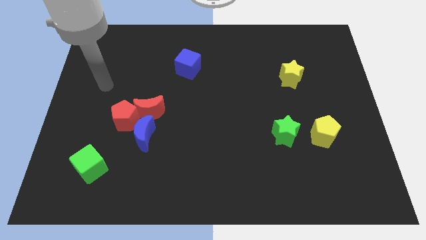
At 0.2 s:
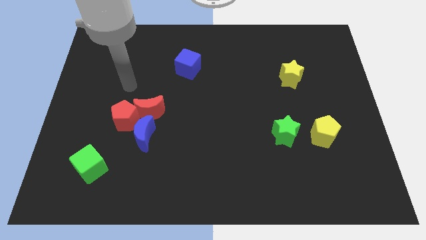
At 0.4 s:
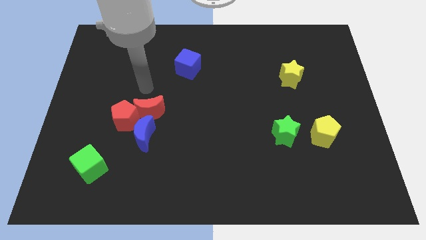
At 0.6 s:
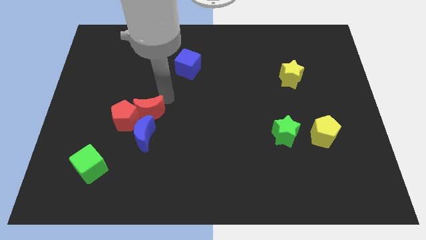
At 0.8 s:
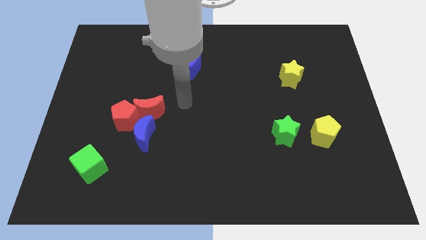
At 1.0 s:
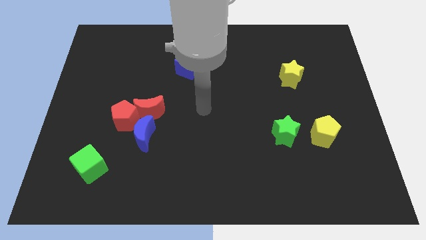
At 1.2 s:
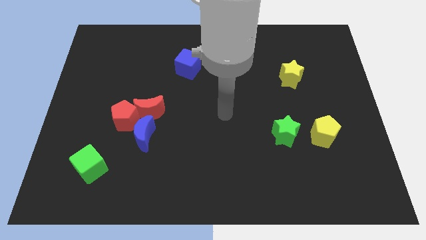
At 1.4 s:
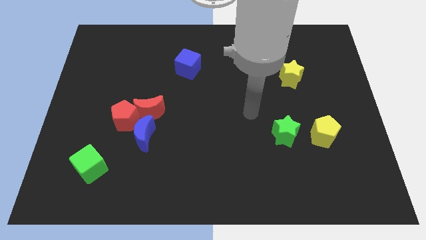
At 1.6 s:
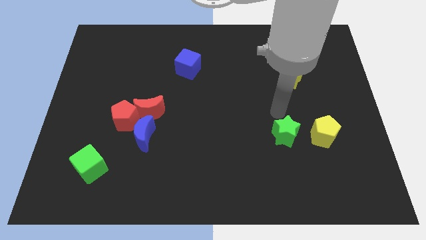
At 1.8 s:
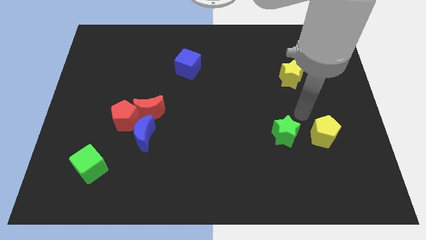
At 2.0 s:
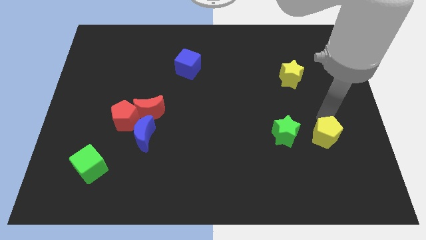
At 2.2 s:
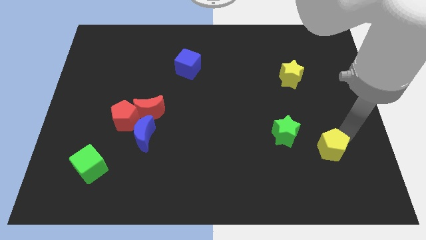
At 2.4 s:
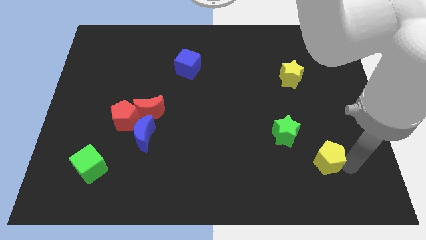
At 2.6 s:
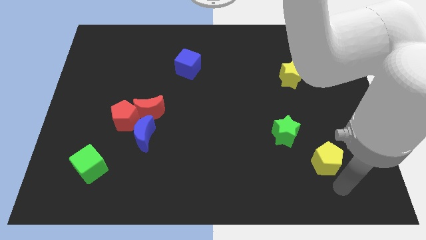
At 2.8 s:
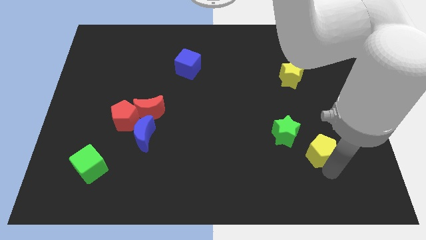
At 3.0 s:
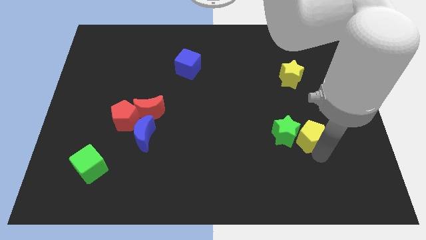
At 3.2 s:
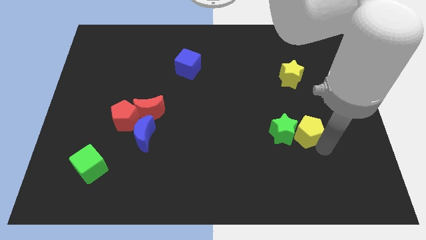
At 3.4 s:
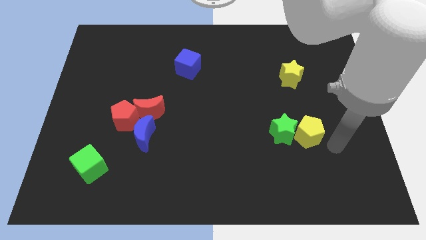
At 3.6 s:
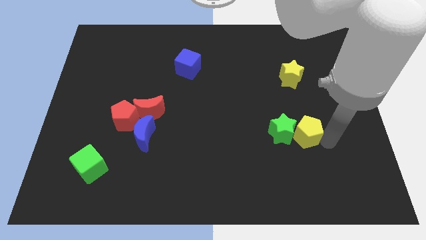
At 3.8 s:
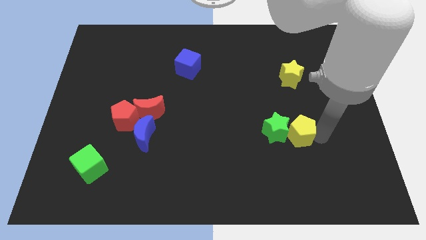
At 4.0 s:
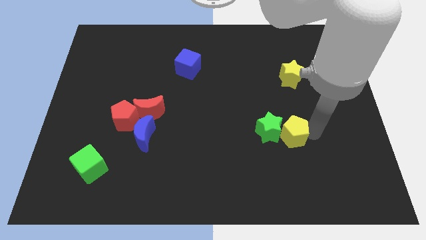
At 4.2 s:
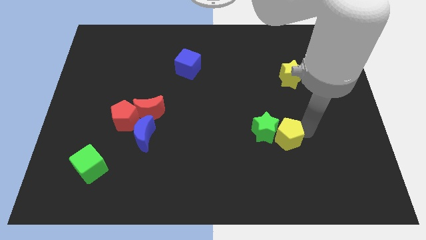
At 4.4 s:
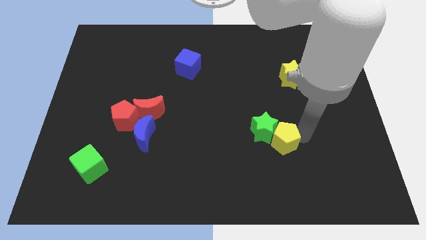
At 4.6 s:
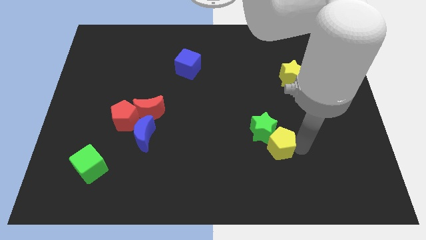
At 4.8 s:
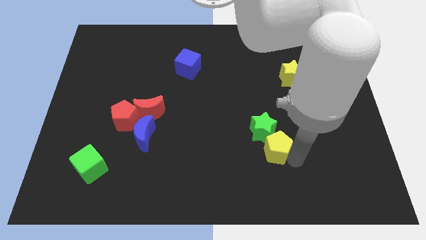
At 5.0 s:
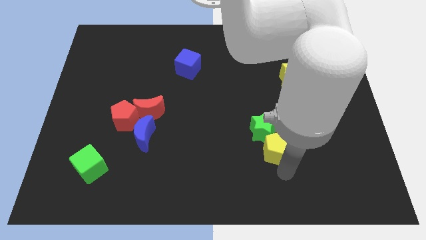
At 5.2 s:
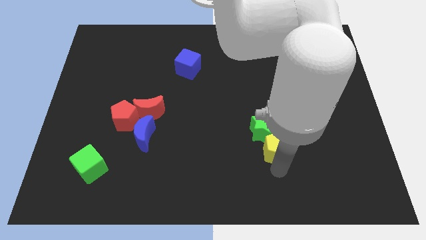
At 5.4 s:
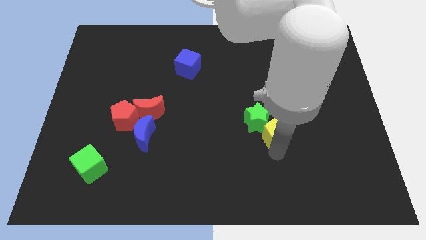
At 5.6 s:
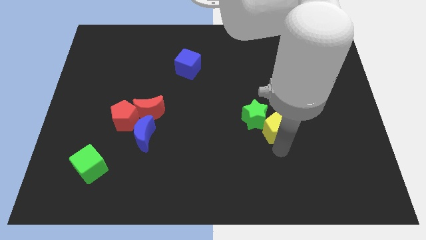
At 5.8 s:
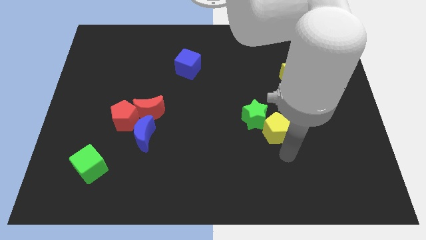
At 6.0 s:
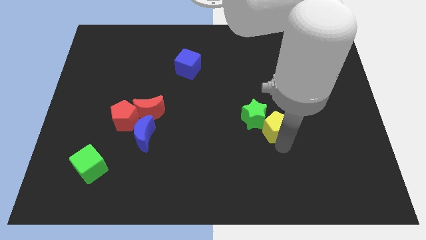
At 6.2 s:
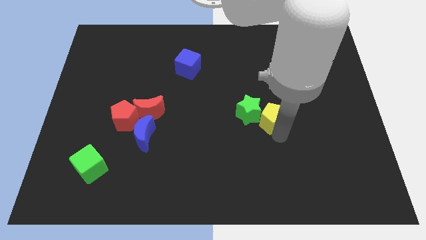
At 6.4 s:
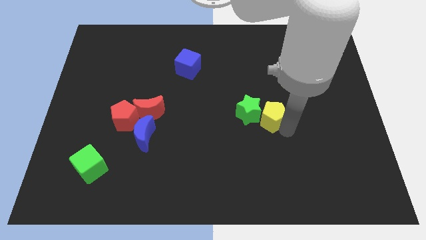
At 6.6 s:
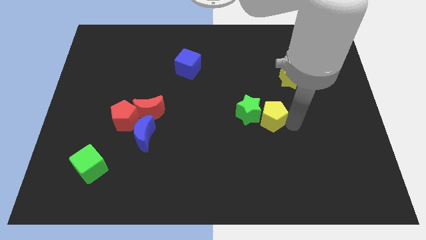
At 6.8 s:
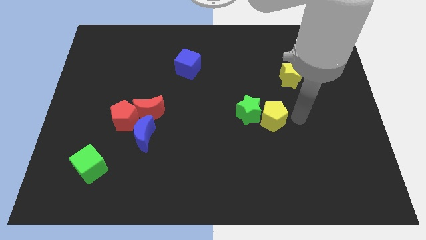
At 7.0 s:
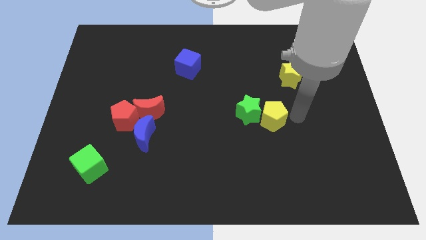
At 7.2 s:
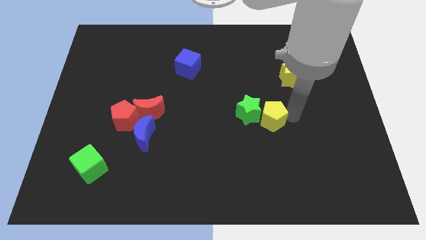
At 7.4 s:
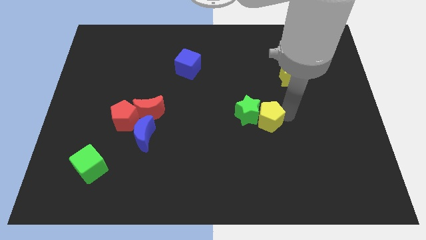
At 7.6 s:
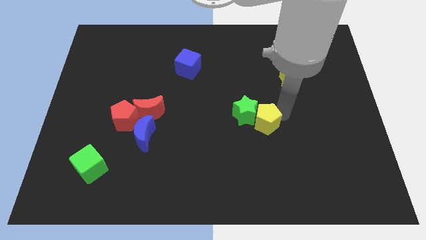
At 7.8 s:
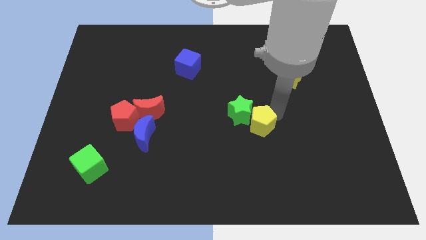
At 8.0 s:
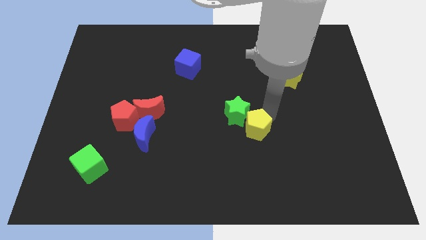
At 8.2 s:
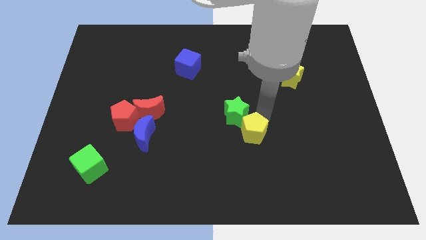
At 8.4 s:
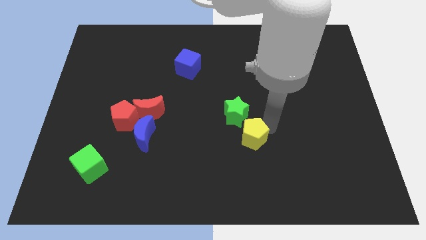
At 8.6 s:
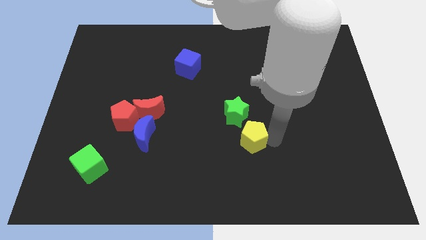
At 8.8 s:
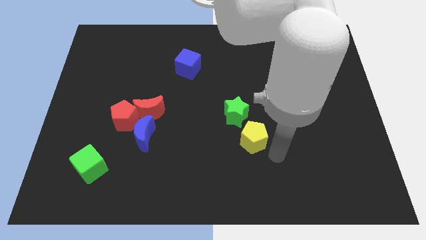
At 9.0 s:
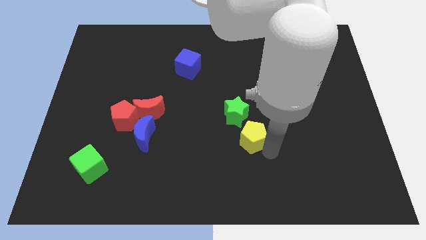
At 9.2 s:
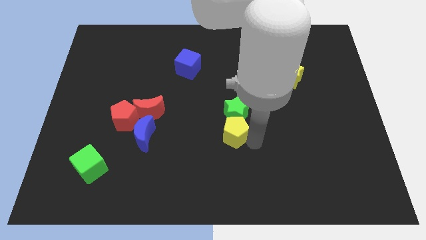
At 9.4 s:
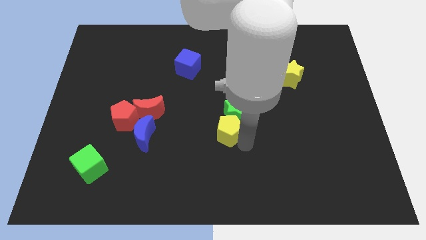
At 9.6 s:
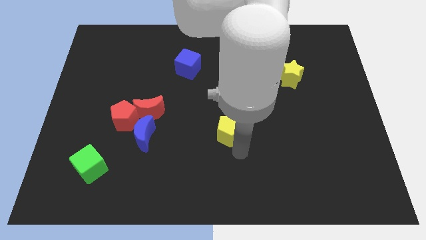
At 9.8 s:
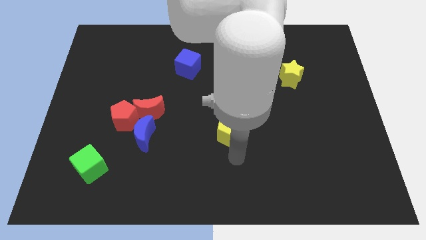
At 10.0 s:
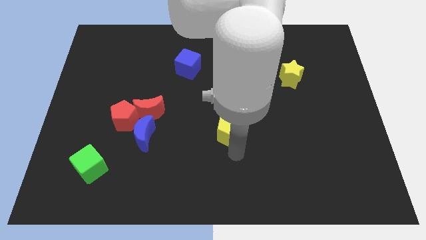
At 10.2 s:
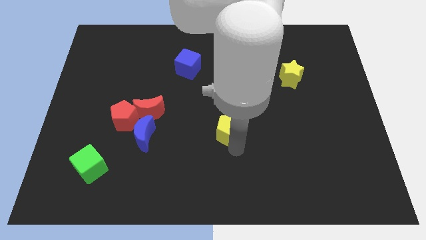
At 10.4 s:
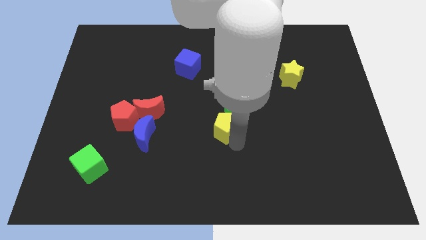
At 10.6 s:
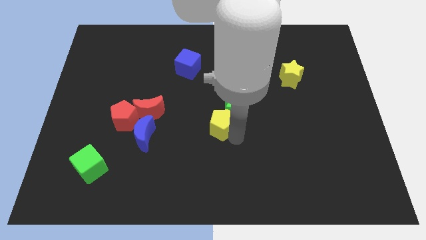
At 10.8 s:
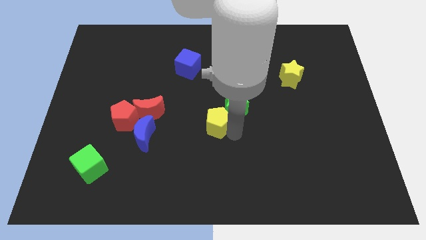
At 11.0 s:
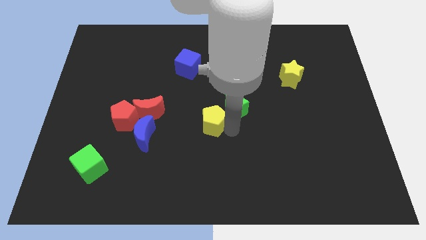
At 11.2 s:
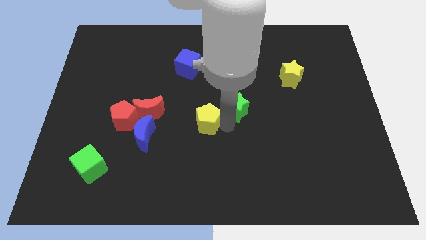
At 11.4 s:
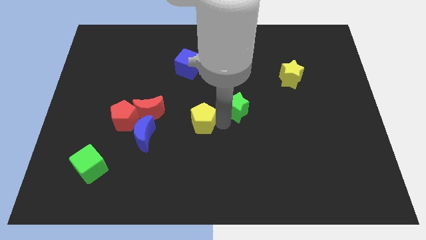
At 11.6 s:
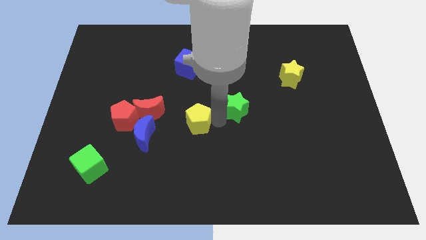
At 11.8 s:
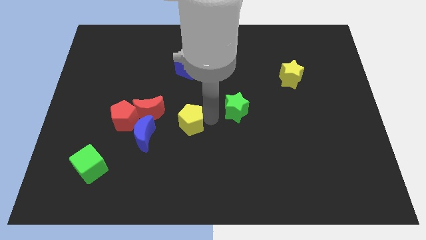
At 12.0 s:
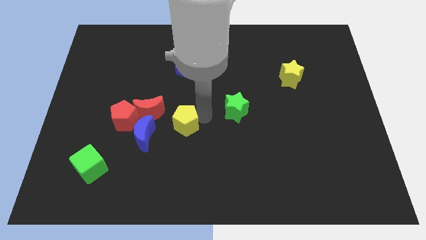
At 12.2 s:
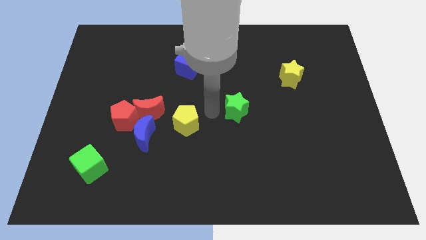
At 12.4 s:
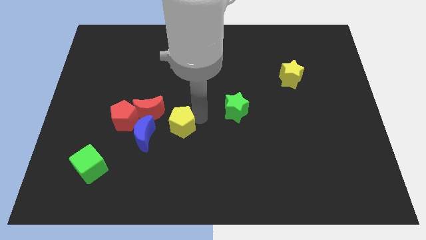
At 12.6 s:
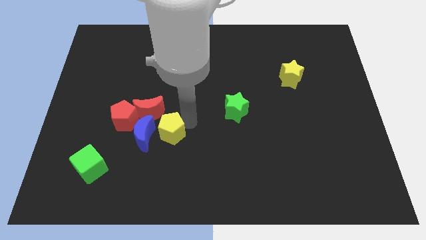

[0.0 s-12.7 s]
slide the yellow pentagon next to the blue moon
